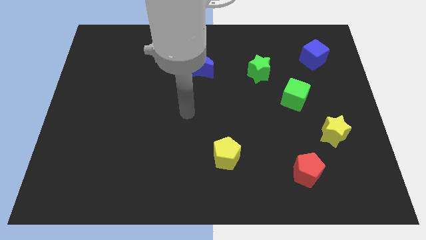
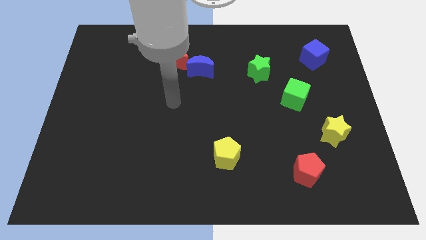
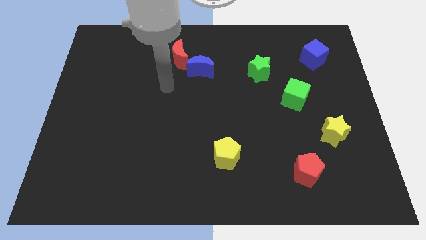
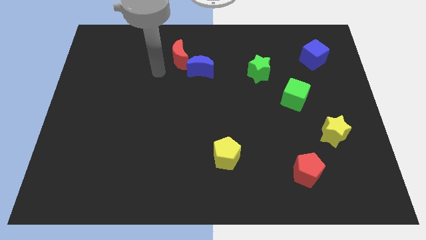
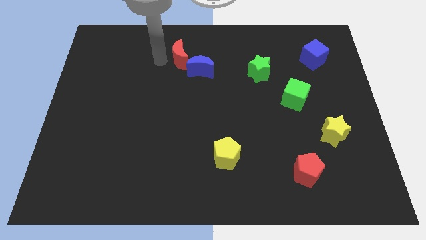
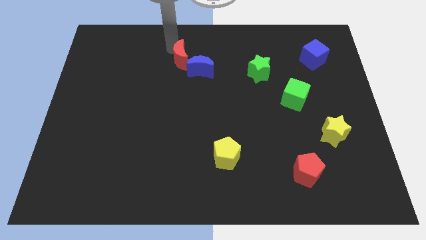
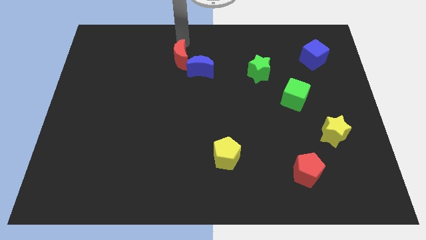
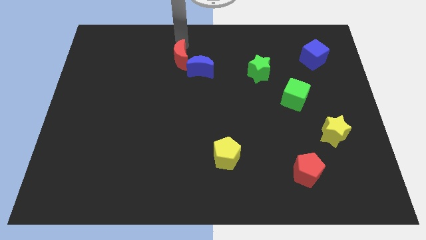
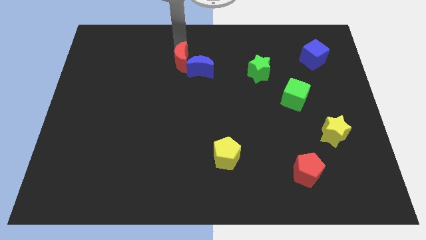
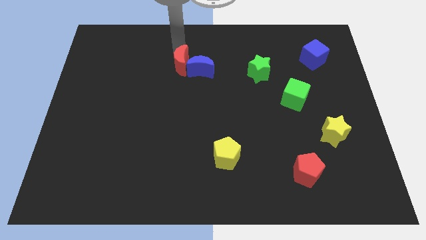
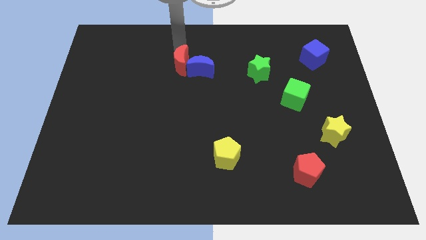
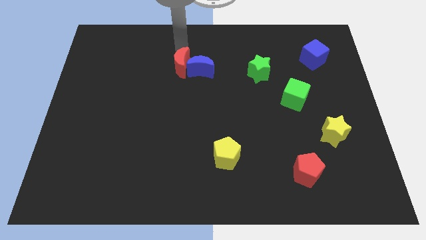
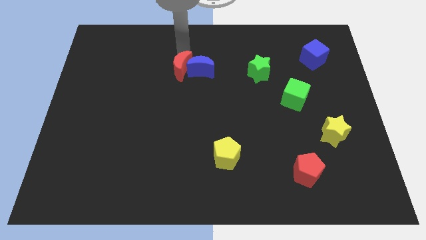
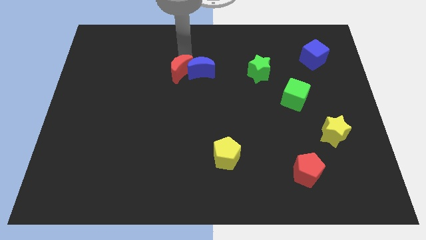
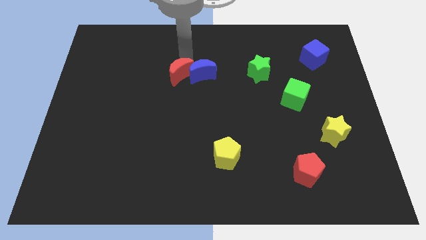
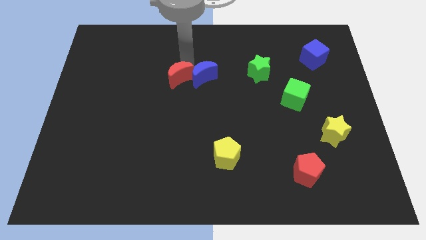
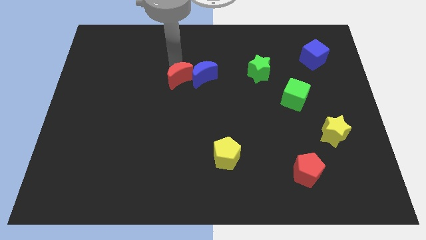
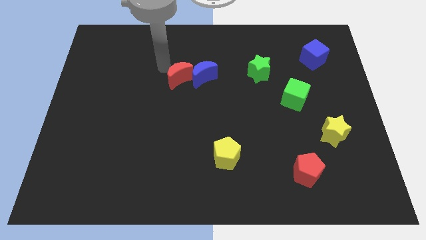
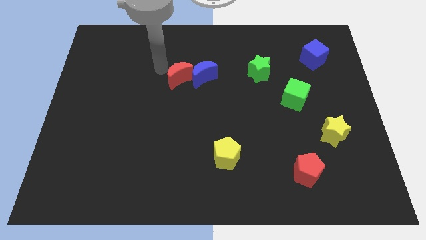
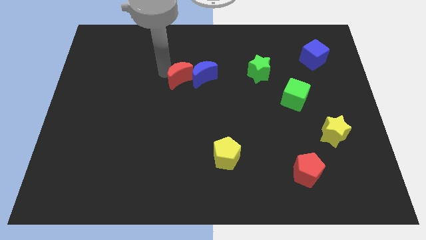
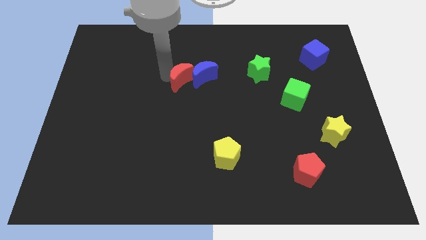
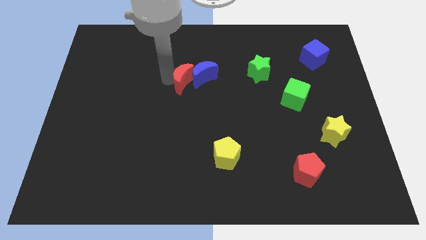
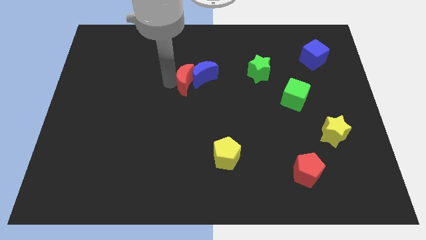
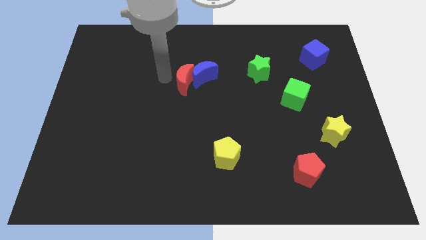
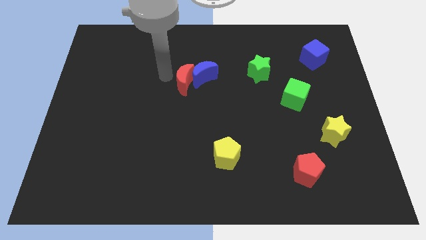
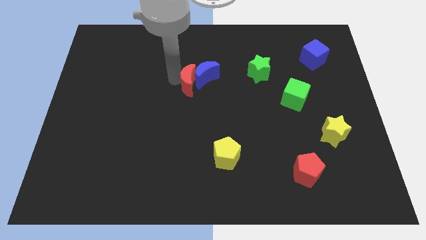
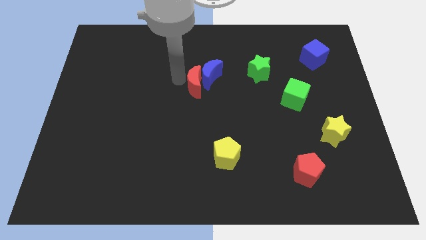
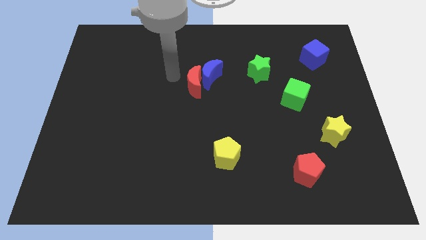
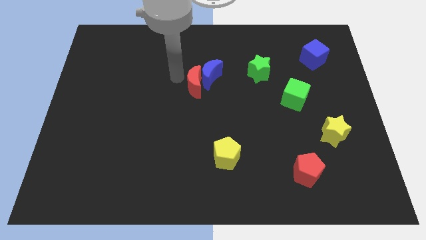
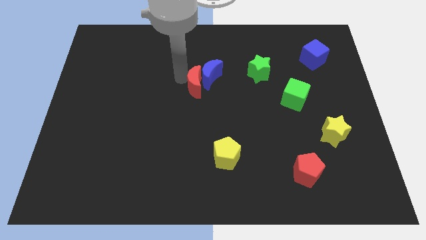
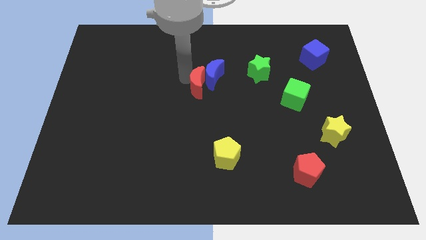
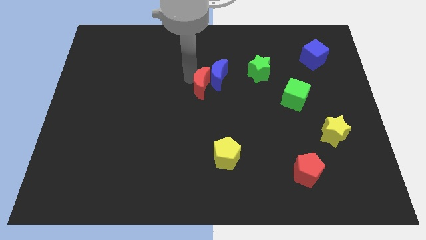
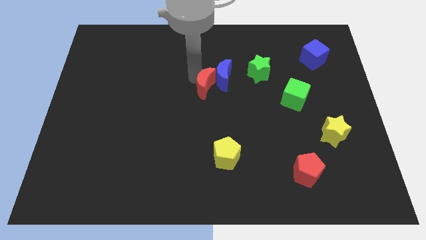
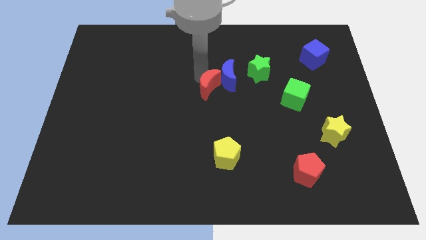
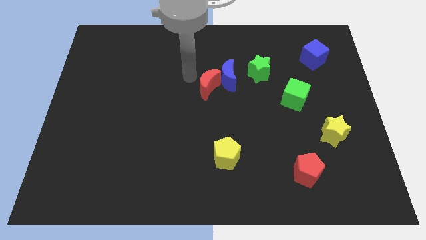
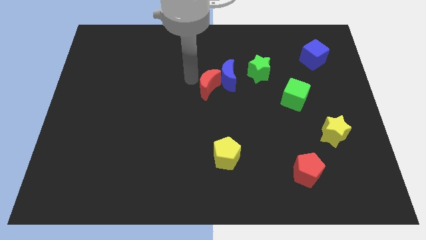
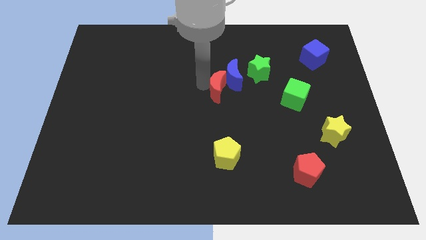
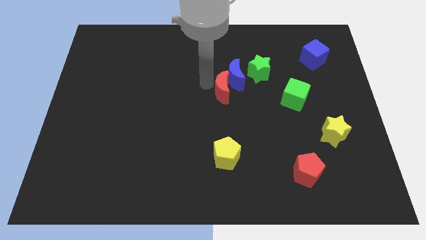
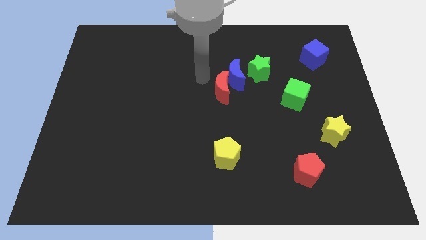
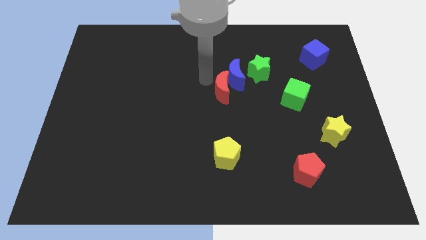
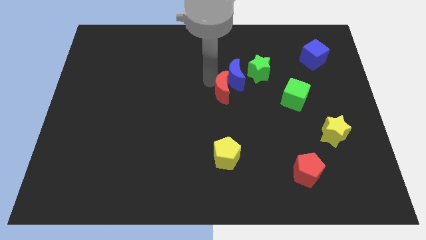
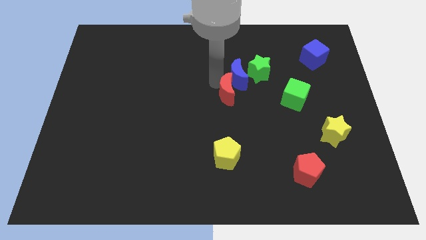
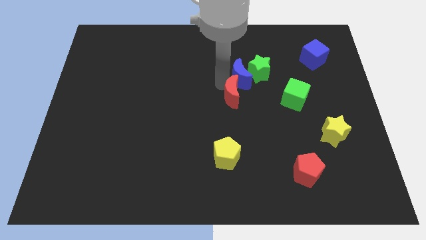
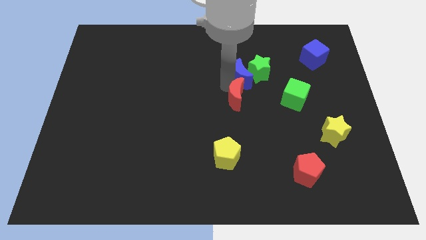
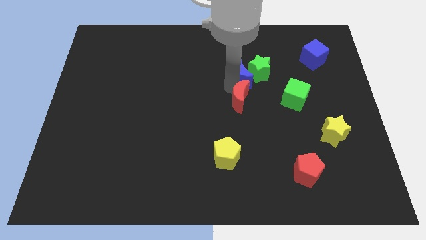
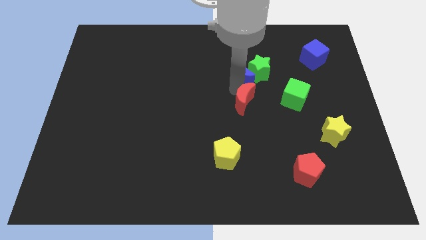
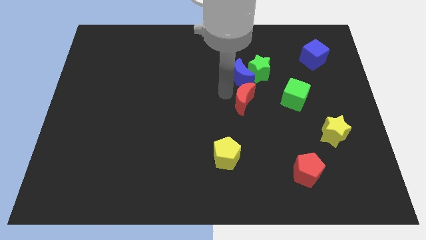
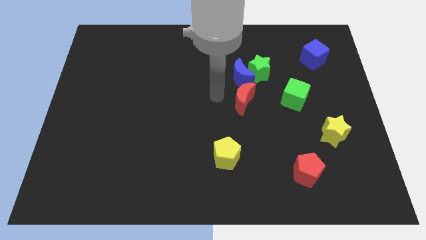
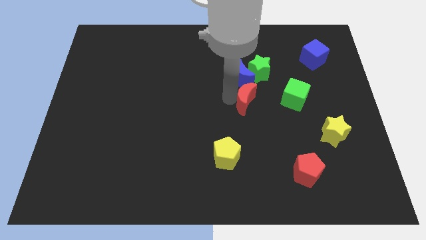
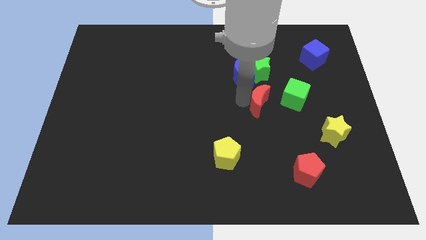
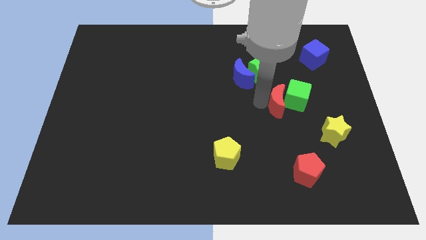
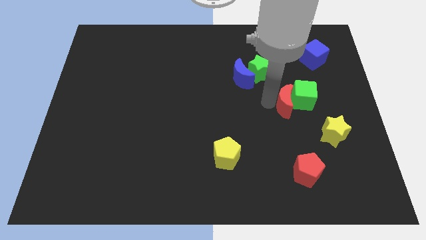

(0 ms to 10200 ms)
put the red moon to the top left side of the yellow star
